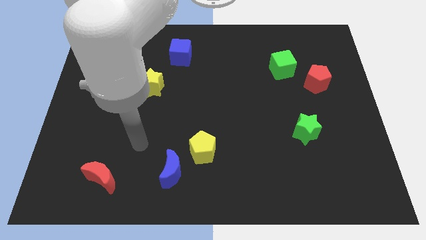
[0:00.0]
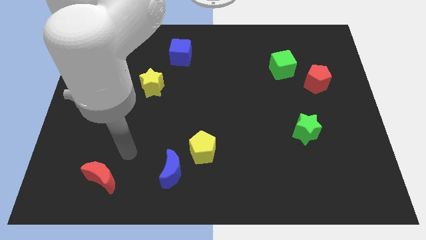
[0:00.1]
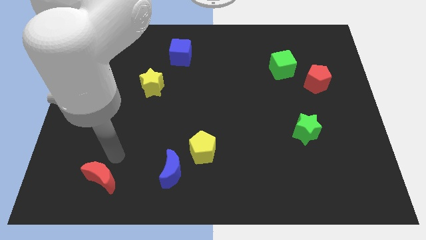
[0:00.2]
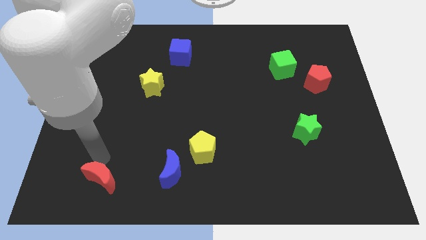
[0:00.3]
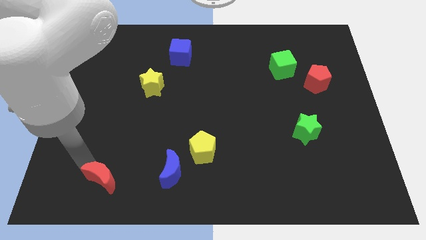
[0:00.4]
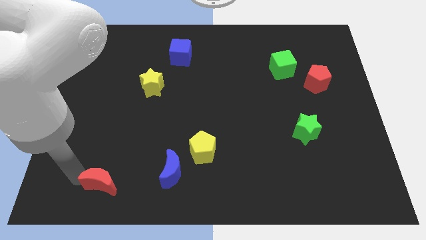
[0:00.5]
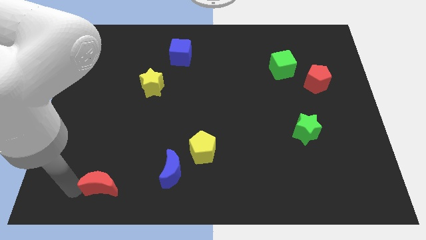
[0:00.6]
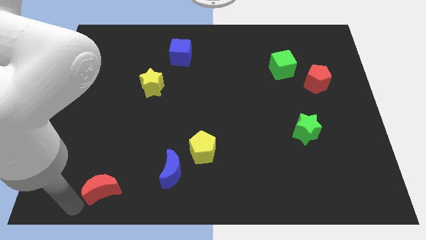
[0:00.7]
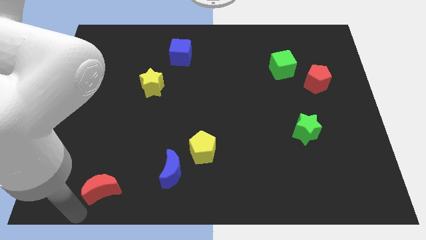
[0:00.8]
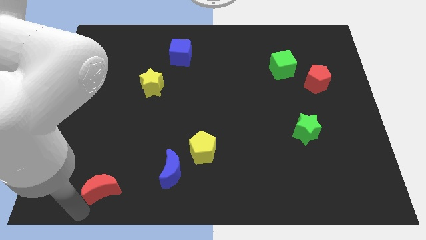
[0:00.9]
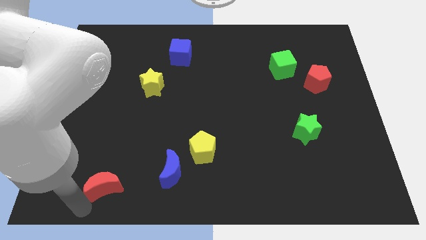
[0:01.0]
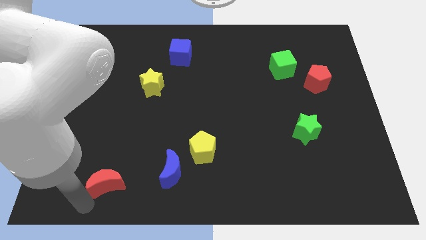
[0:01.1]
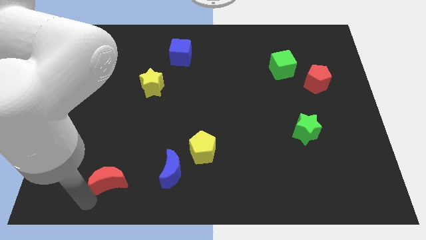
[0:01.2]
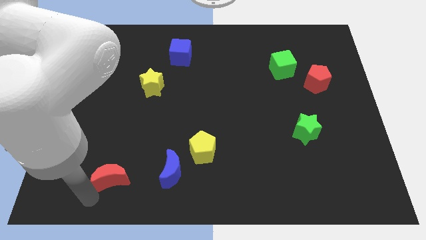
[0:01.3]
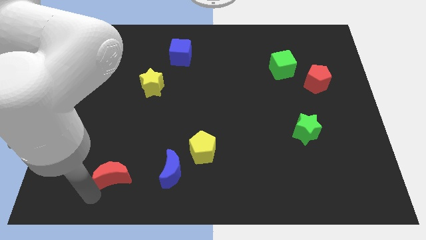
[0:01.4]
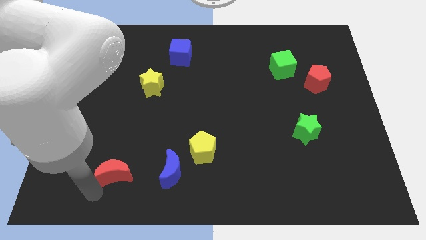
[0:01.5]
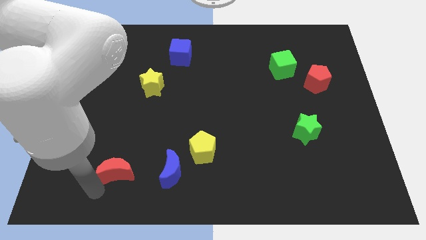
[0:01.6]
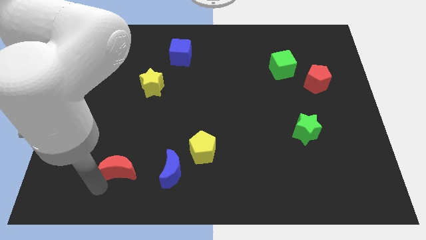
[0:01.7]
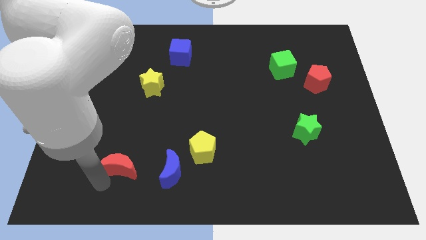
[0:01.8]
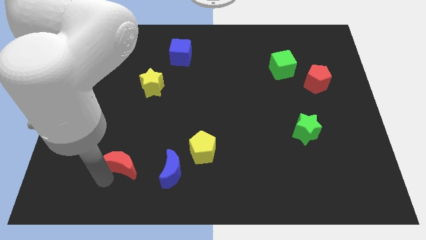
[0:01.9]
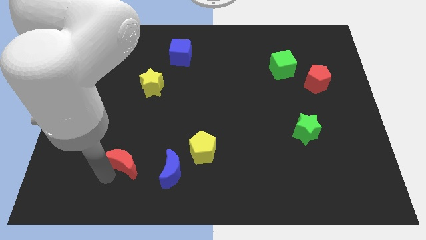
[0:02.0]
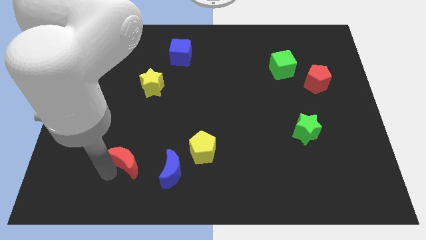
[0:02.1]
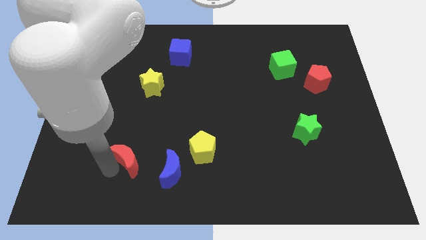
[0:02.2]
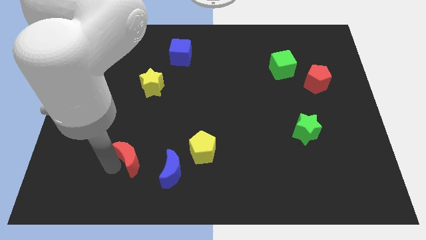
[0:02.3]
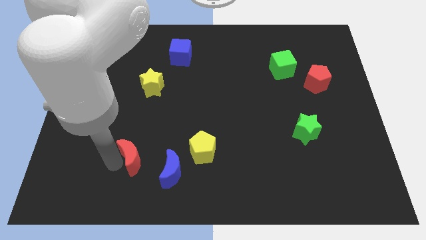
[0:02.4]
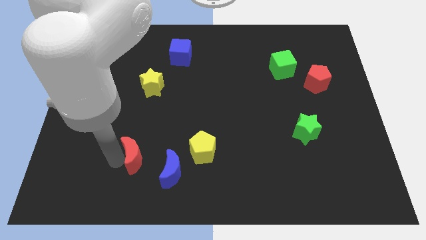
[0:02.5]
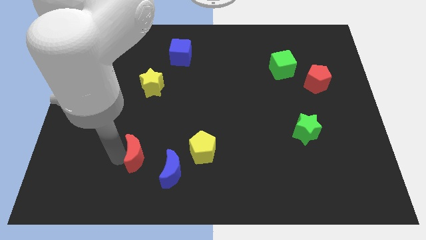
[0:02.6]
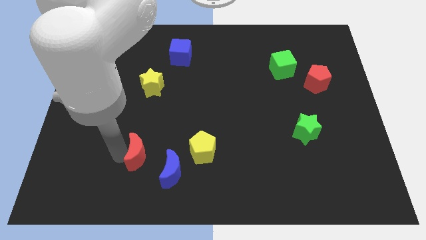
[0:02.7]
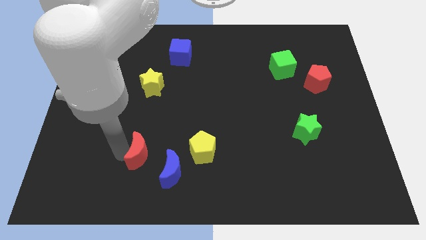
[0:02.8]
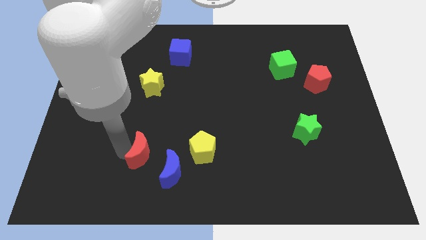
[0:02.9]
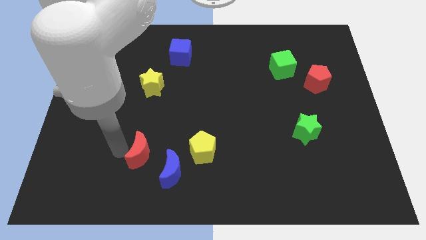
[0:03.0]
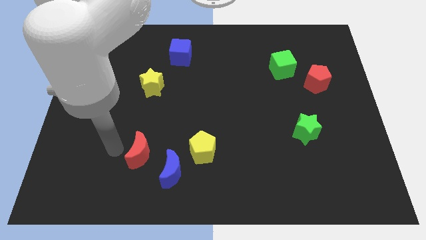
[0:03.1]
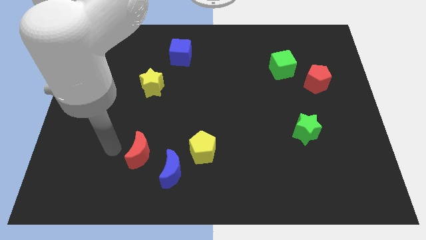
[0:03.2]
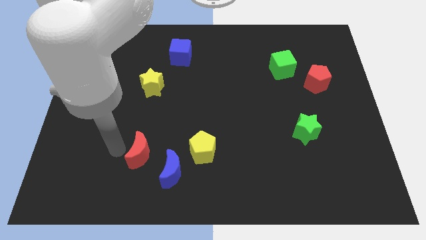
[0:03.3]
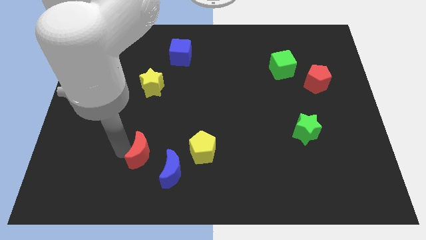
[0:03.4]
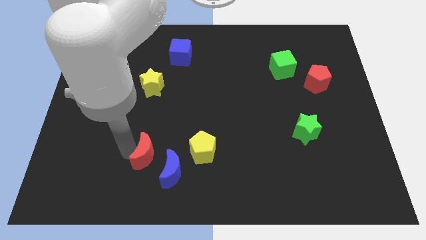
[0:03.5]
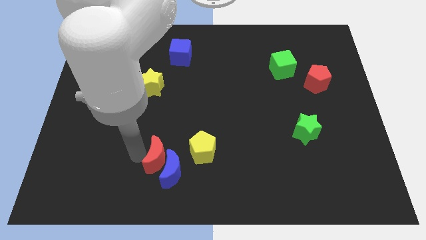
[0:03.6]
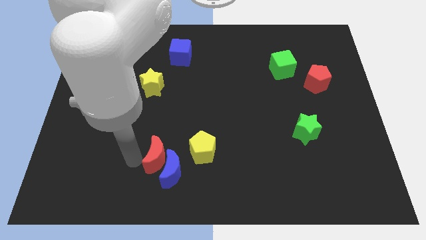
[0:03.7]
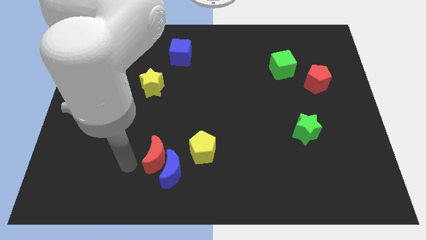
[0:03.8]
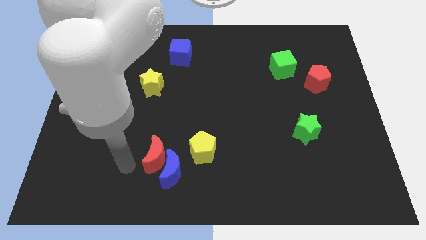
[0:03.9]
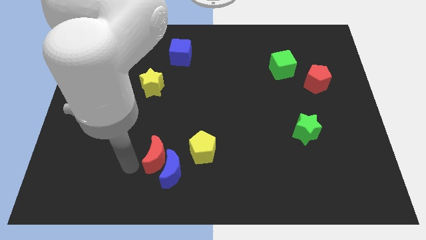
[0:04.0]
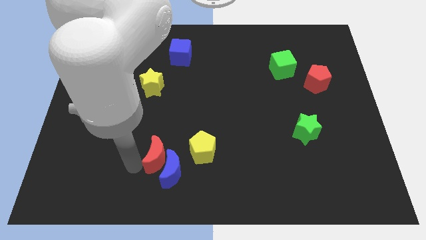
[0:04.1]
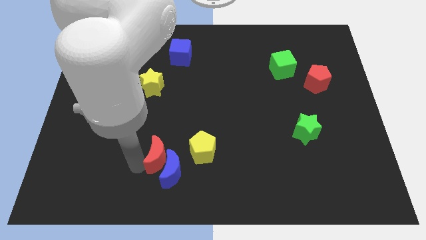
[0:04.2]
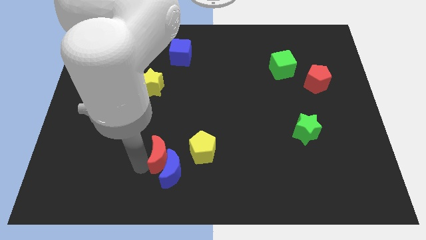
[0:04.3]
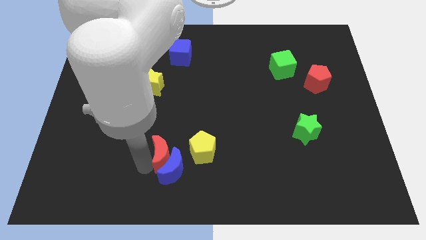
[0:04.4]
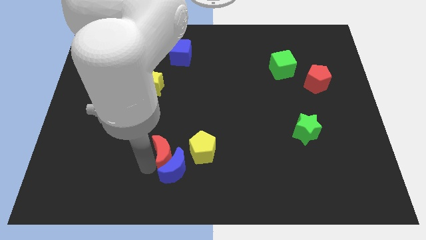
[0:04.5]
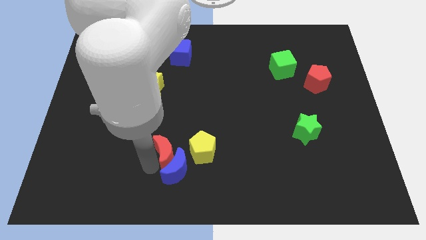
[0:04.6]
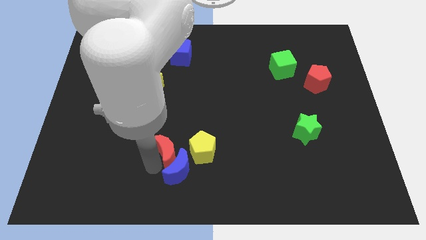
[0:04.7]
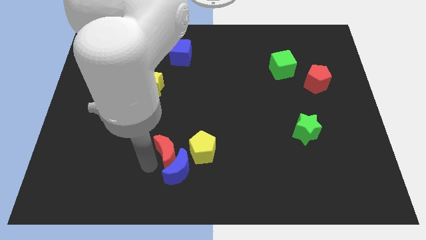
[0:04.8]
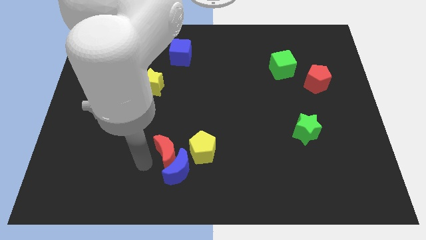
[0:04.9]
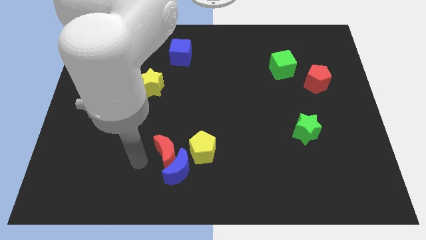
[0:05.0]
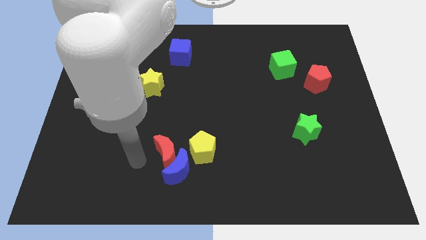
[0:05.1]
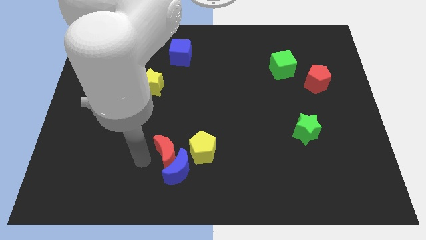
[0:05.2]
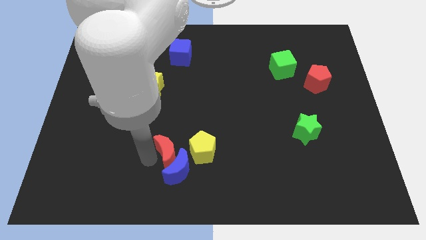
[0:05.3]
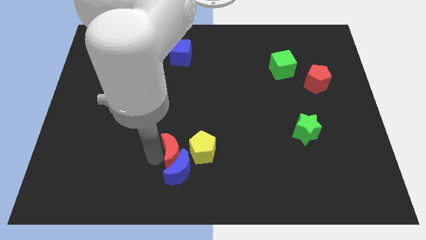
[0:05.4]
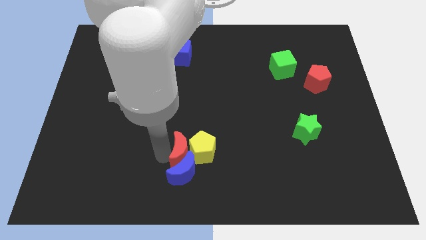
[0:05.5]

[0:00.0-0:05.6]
push the red moon towards the yellow pentagon

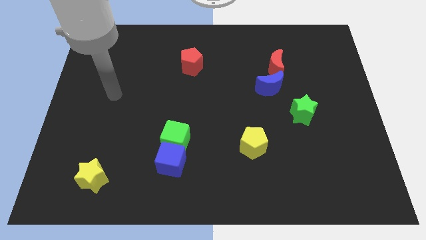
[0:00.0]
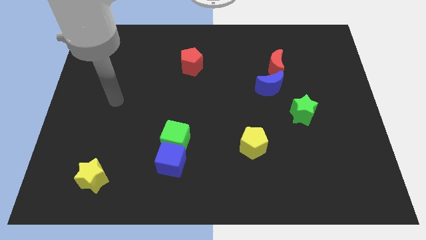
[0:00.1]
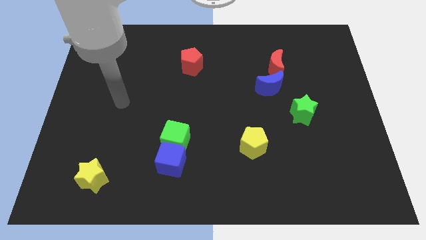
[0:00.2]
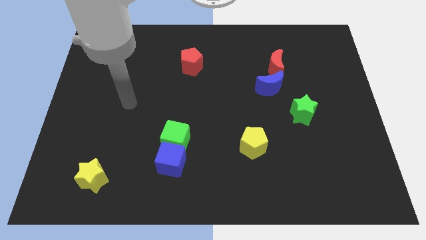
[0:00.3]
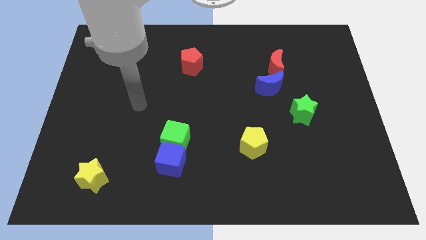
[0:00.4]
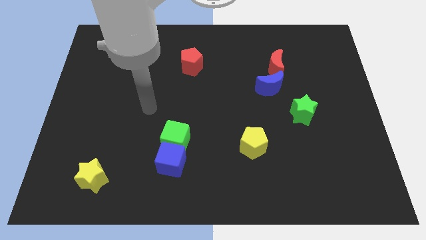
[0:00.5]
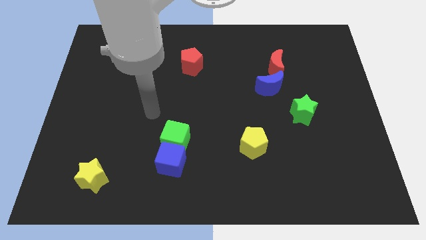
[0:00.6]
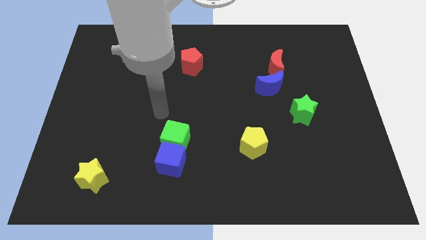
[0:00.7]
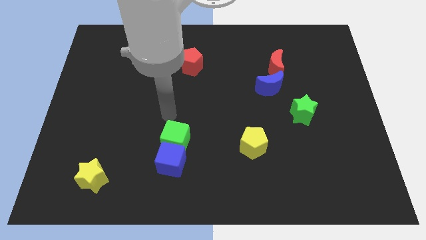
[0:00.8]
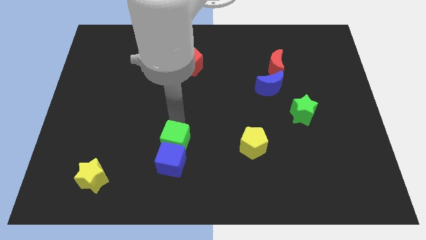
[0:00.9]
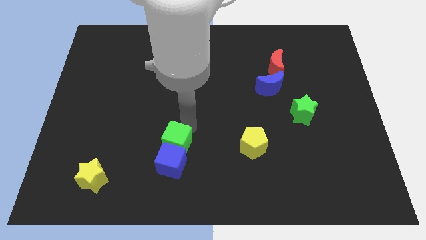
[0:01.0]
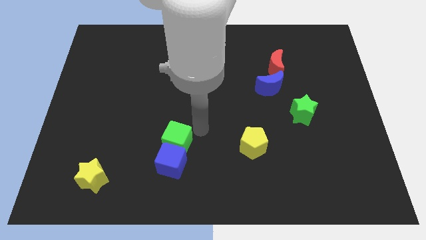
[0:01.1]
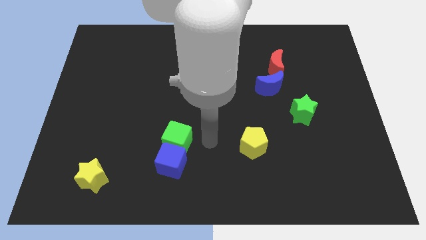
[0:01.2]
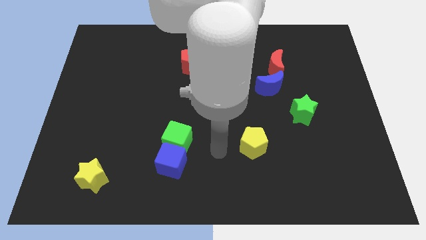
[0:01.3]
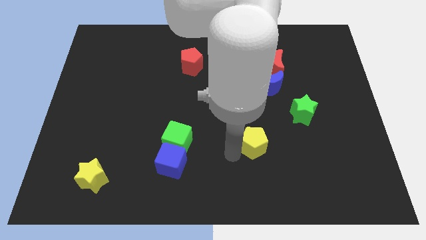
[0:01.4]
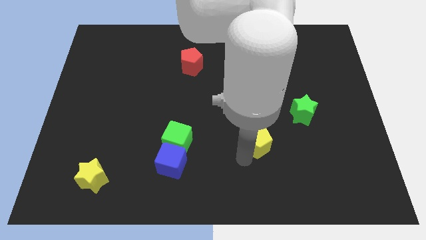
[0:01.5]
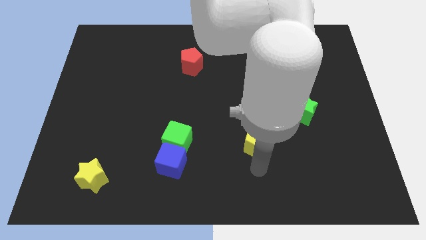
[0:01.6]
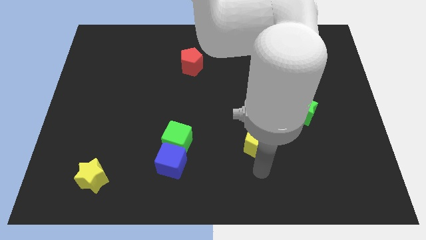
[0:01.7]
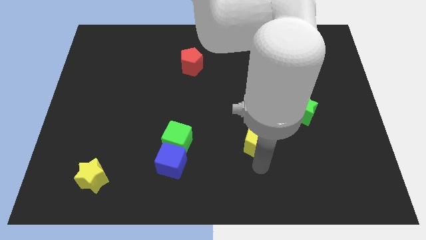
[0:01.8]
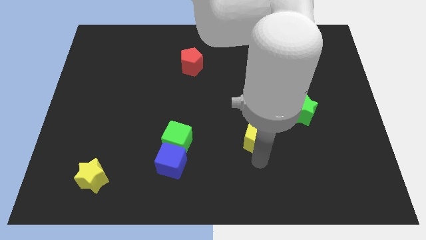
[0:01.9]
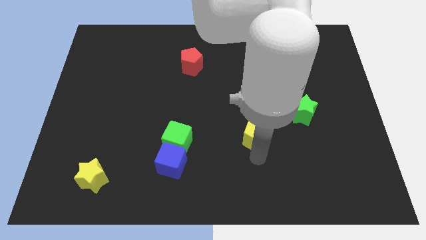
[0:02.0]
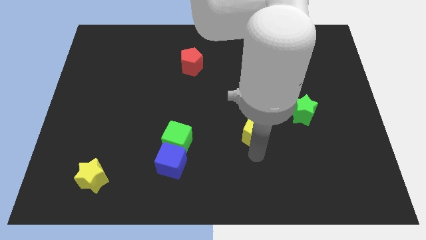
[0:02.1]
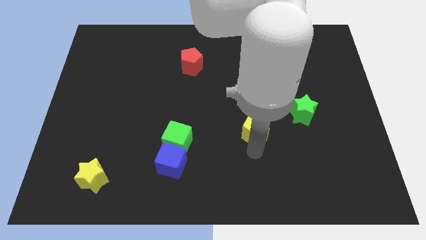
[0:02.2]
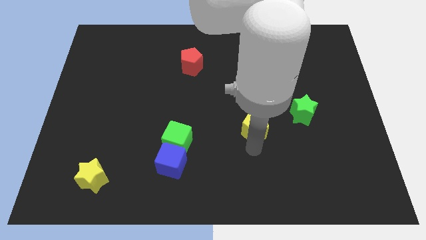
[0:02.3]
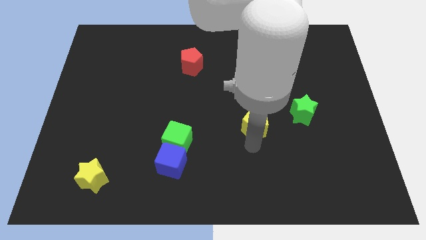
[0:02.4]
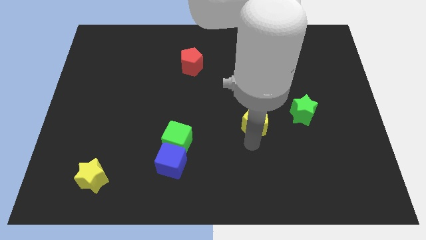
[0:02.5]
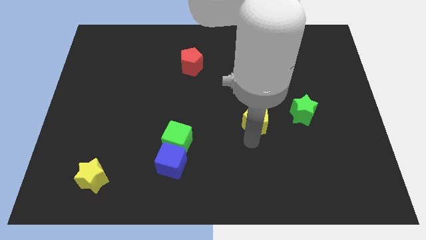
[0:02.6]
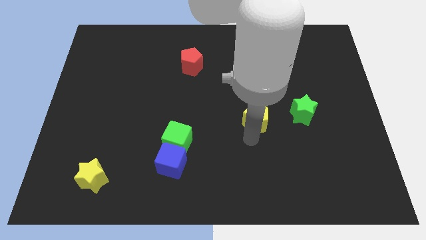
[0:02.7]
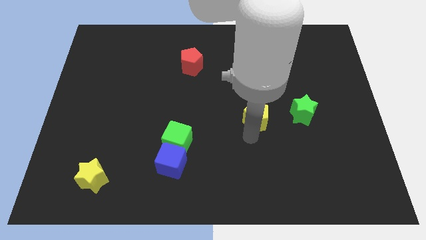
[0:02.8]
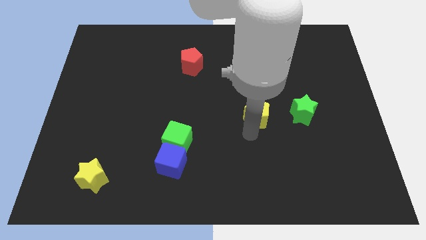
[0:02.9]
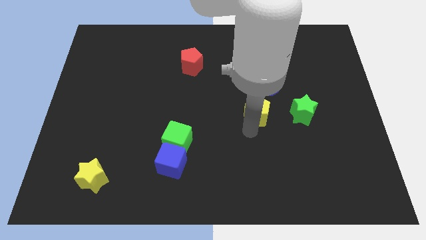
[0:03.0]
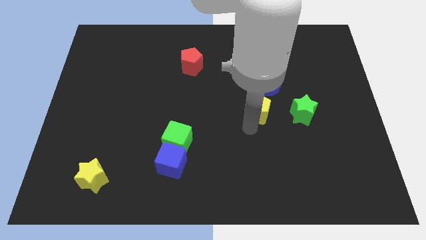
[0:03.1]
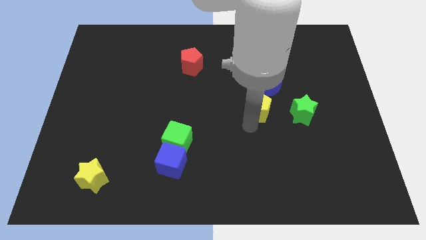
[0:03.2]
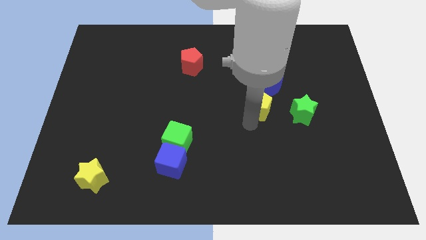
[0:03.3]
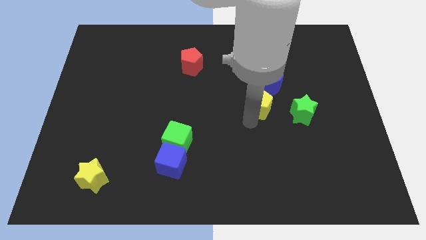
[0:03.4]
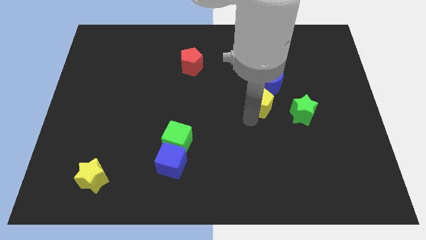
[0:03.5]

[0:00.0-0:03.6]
push the yellow pentagon close to the blue moon
